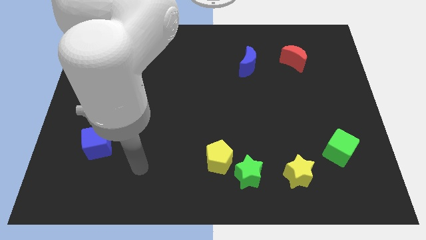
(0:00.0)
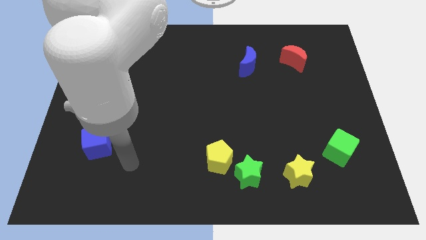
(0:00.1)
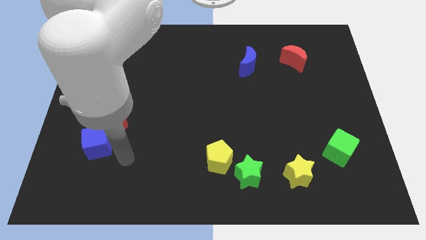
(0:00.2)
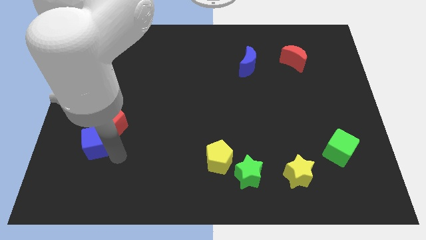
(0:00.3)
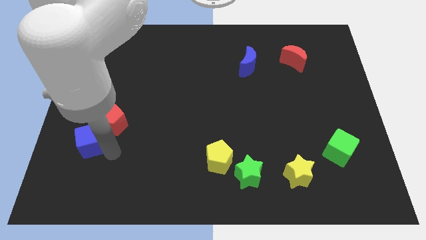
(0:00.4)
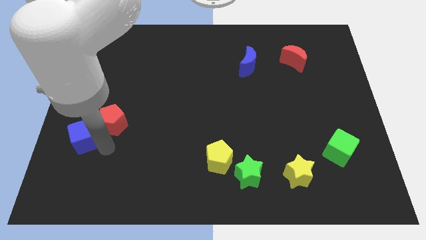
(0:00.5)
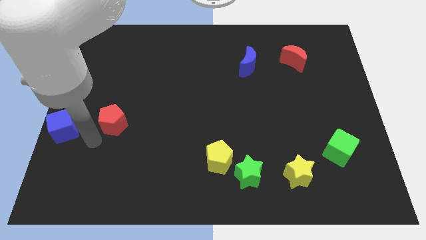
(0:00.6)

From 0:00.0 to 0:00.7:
separate the red pentagon from the blue cube

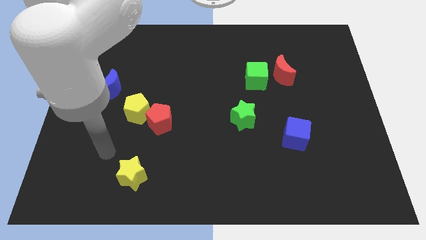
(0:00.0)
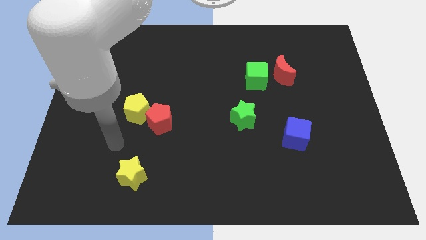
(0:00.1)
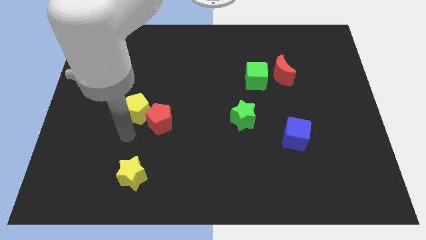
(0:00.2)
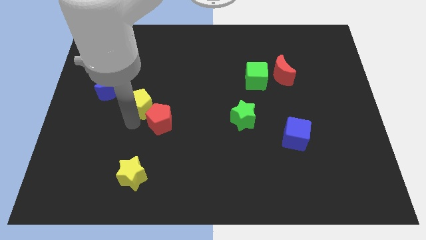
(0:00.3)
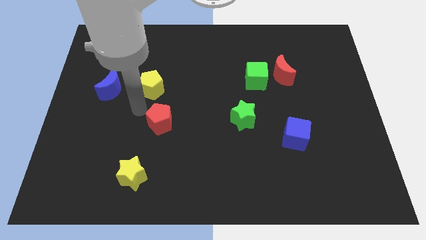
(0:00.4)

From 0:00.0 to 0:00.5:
move the red pentagon away from the yellow pentagon

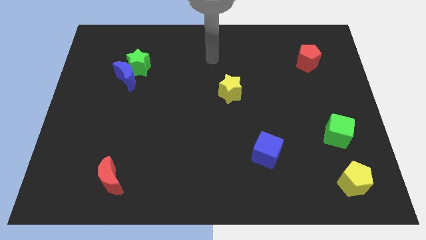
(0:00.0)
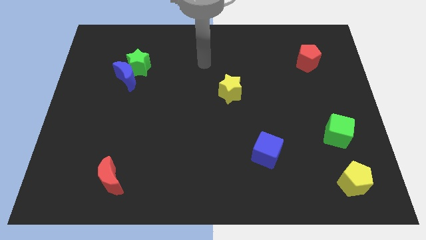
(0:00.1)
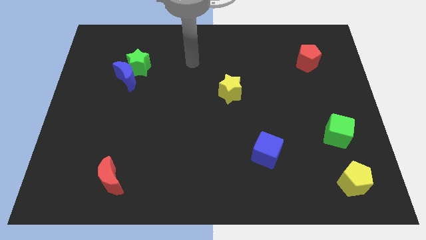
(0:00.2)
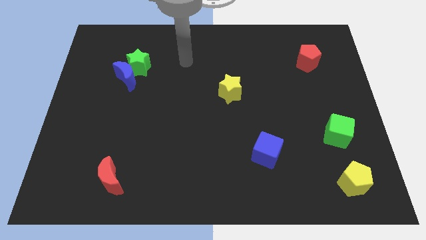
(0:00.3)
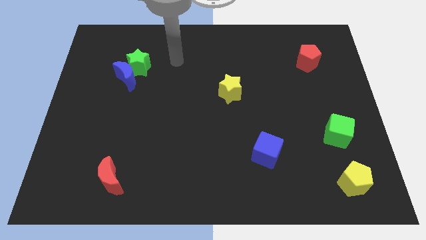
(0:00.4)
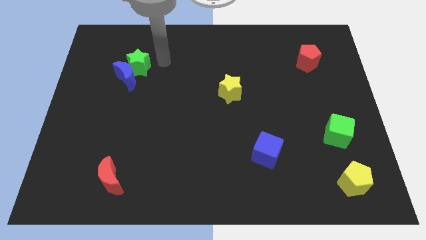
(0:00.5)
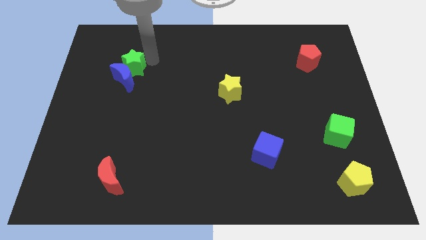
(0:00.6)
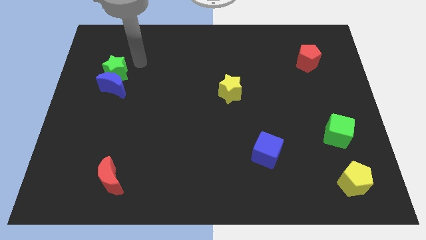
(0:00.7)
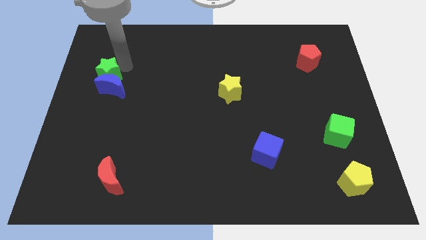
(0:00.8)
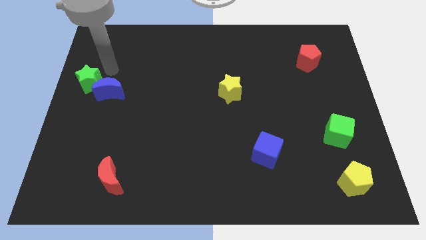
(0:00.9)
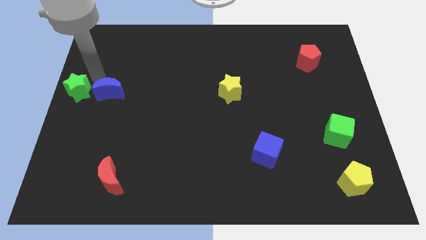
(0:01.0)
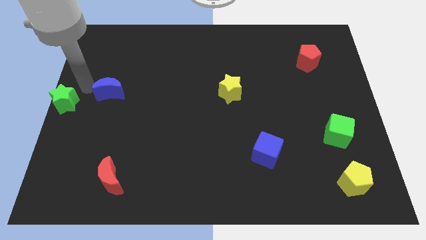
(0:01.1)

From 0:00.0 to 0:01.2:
separate the blue moon from the green star

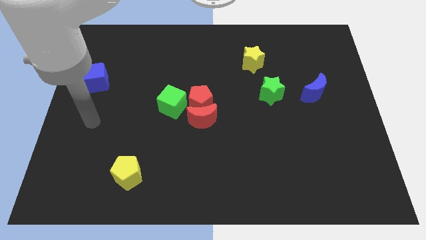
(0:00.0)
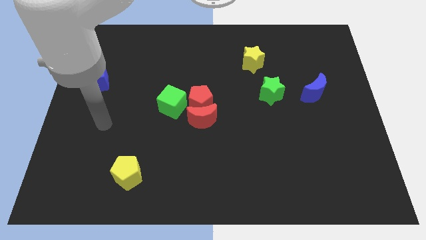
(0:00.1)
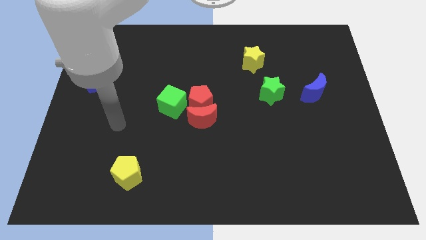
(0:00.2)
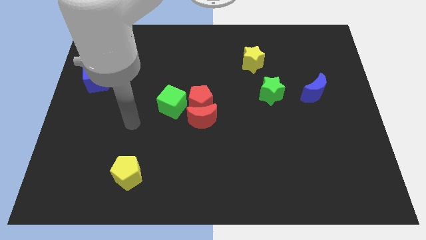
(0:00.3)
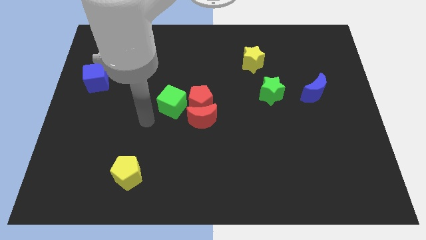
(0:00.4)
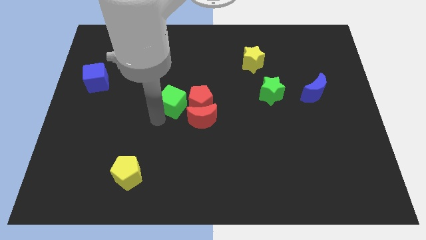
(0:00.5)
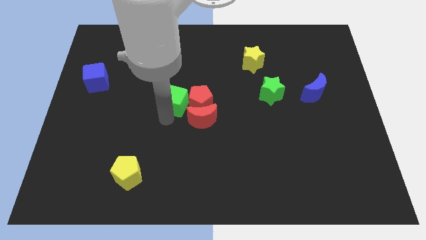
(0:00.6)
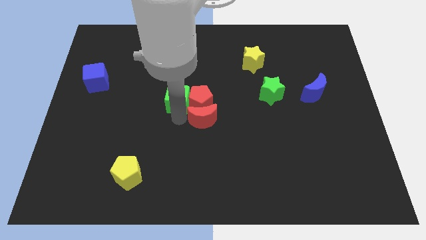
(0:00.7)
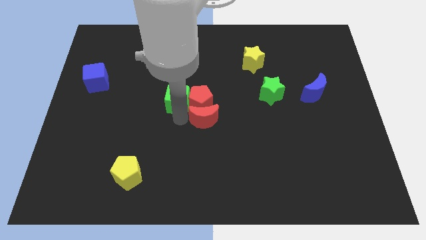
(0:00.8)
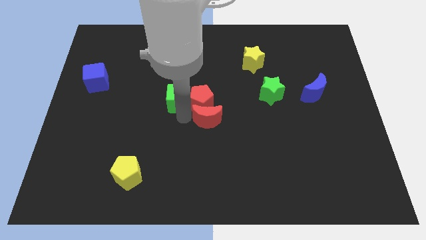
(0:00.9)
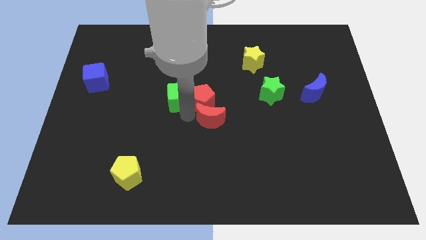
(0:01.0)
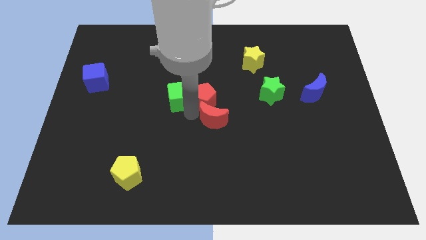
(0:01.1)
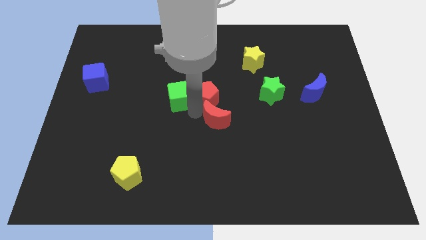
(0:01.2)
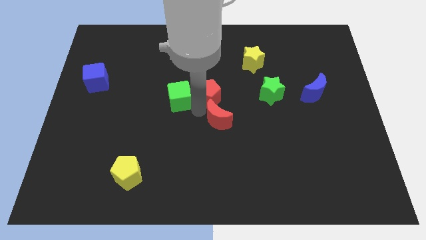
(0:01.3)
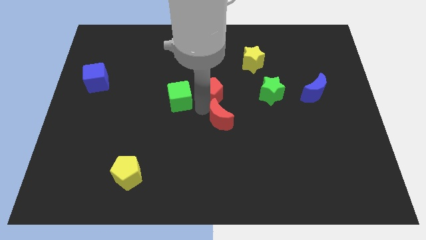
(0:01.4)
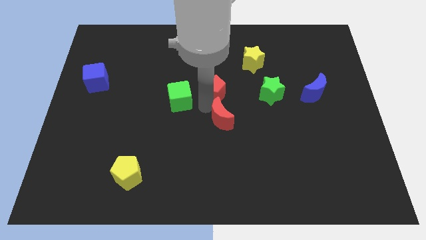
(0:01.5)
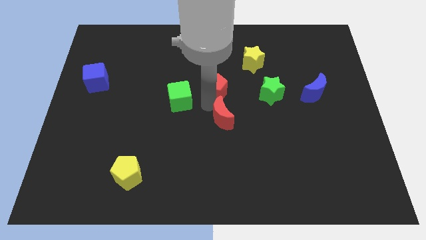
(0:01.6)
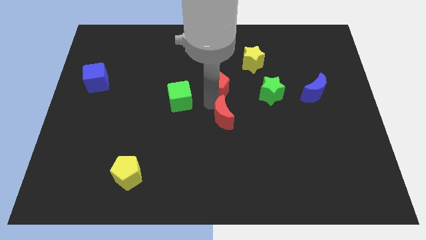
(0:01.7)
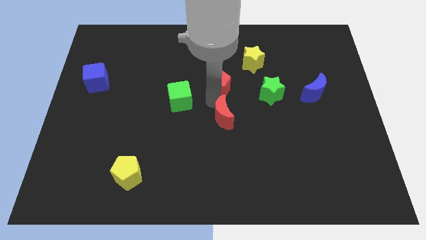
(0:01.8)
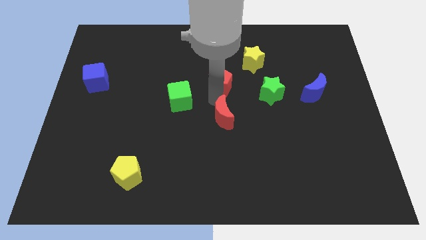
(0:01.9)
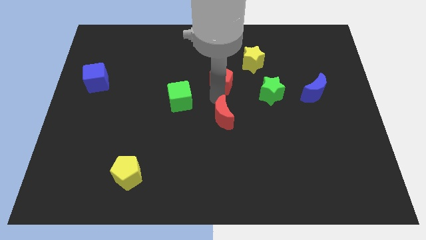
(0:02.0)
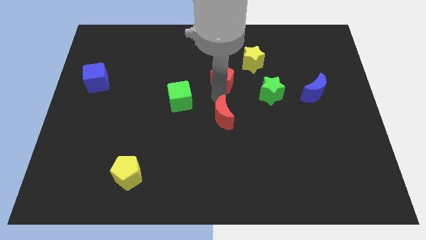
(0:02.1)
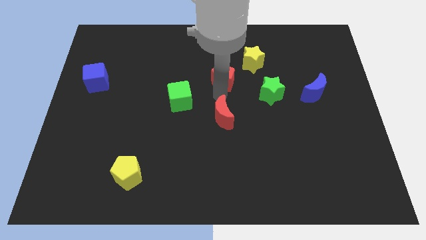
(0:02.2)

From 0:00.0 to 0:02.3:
pull the red pentagon apart from the red moon and green cube

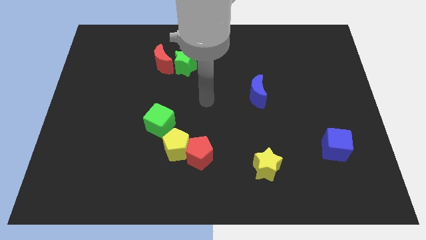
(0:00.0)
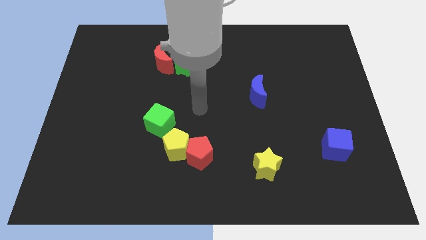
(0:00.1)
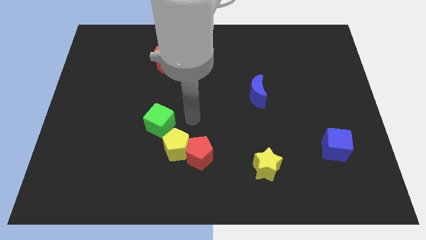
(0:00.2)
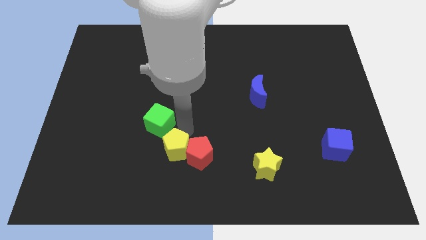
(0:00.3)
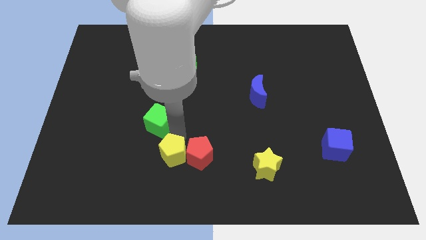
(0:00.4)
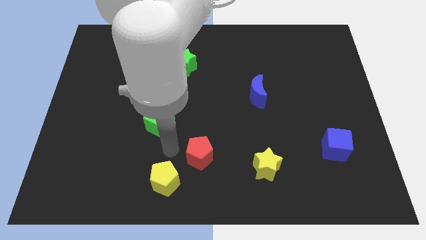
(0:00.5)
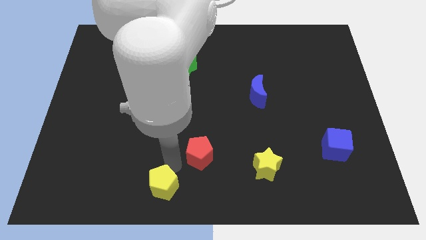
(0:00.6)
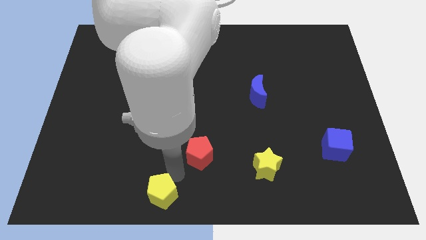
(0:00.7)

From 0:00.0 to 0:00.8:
pull the red pentagon apart from the yellow pentagon

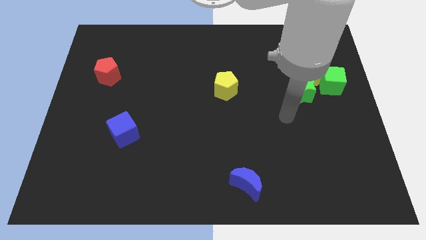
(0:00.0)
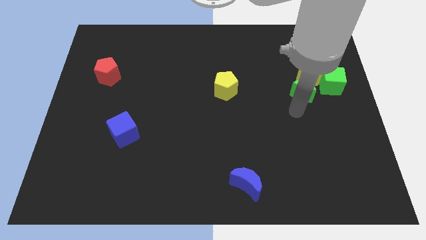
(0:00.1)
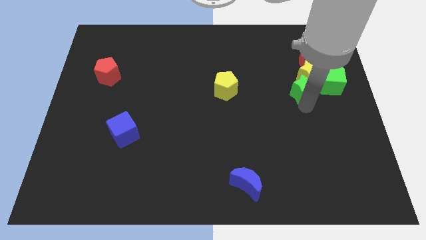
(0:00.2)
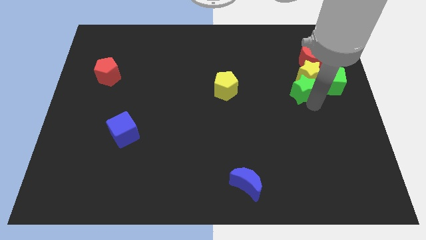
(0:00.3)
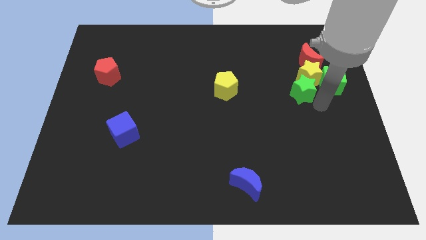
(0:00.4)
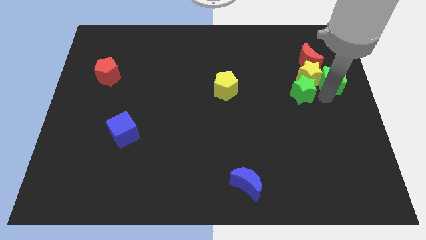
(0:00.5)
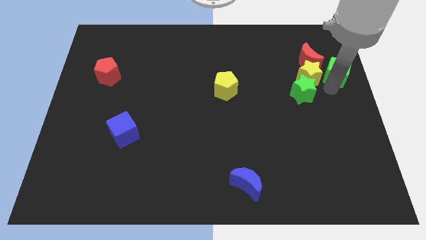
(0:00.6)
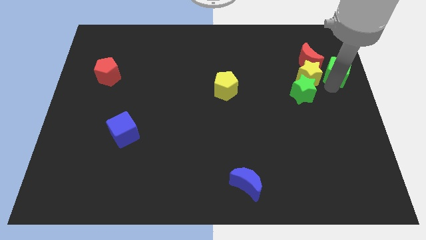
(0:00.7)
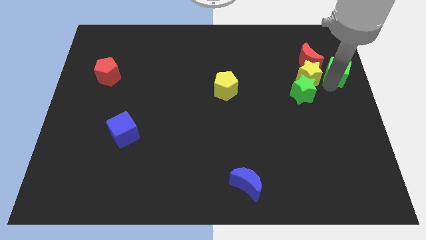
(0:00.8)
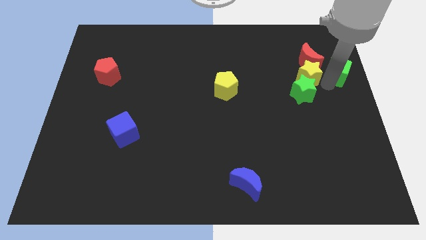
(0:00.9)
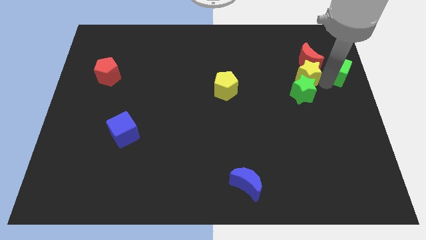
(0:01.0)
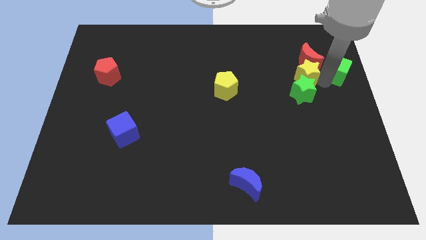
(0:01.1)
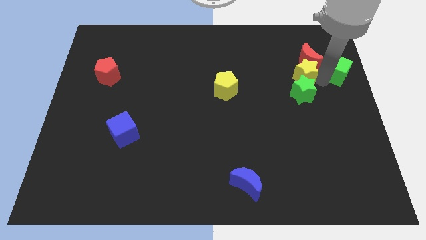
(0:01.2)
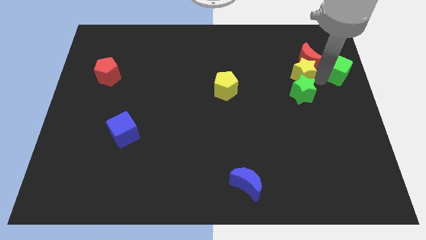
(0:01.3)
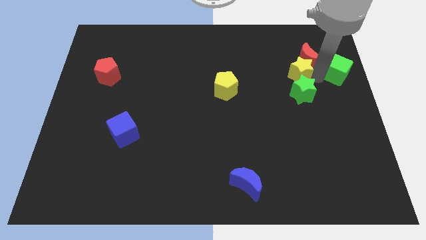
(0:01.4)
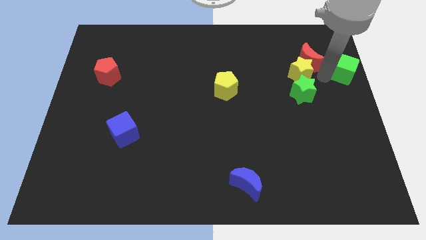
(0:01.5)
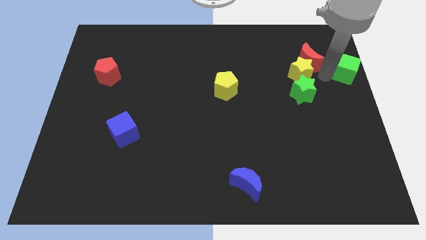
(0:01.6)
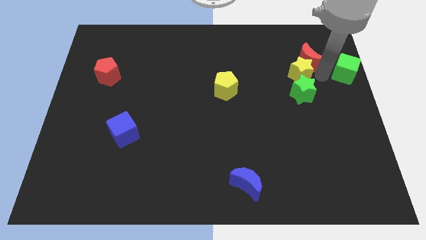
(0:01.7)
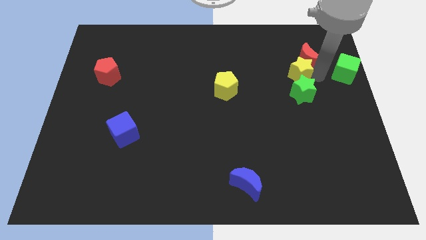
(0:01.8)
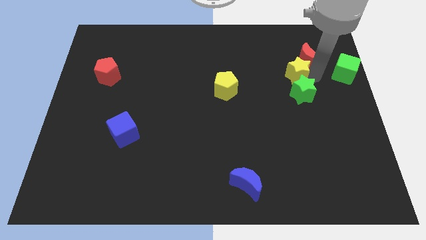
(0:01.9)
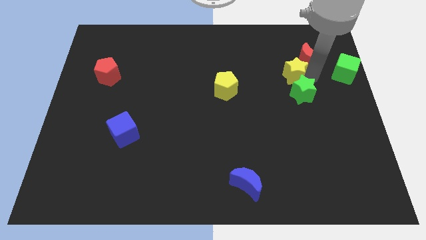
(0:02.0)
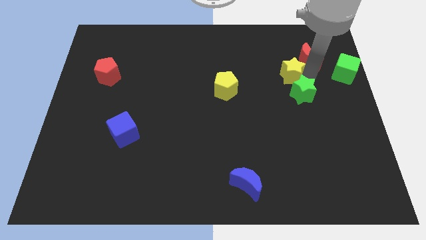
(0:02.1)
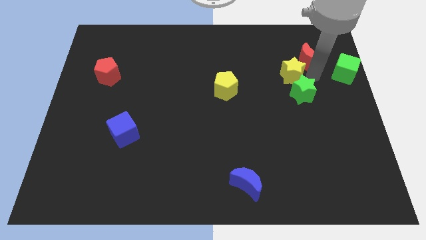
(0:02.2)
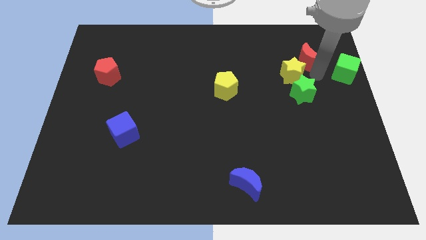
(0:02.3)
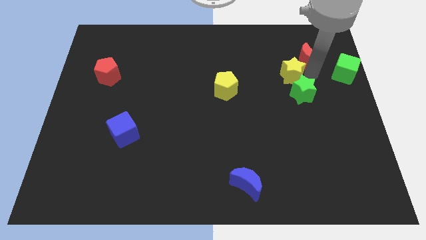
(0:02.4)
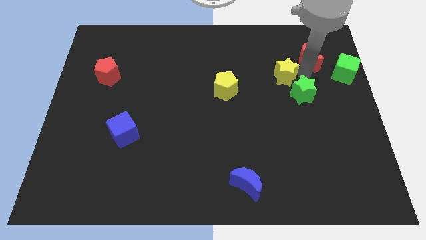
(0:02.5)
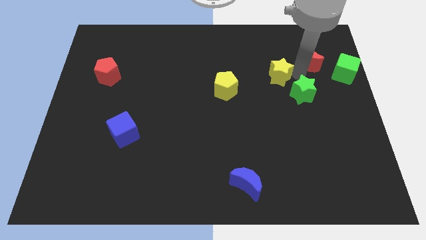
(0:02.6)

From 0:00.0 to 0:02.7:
pull the yellow star apart from the red moon, green star, and green cube

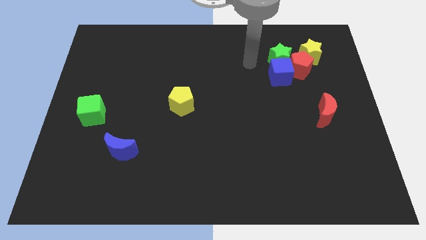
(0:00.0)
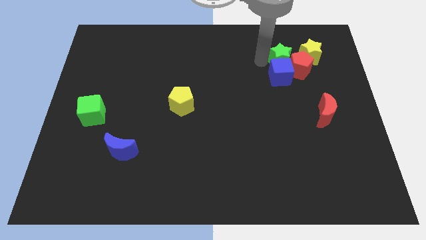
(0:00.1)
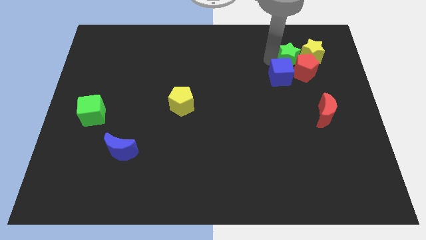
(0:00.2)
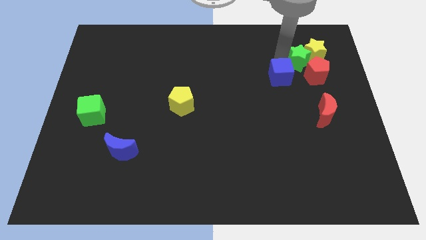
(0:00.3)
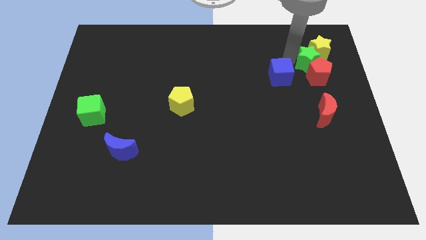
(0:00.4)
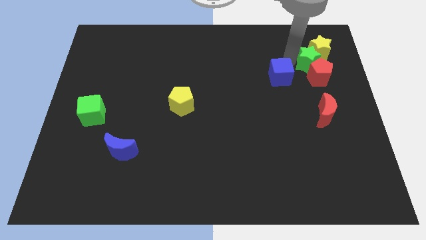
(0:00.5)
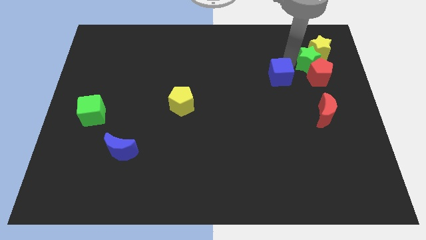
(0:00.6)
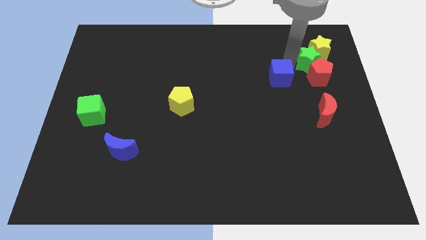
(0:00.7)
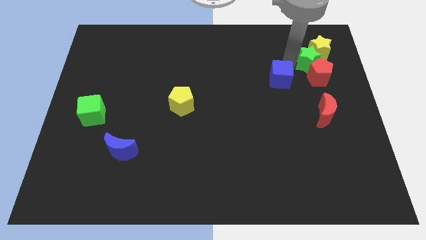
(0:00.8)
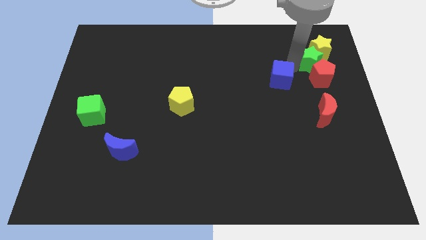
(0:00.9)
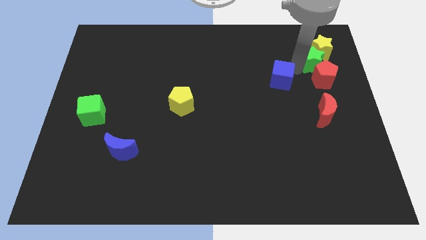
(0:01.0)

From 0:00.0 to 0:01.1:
move the blue cube away from the green star and red pentagon
